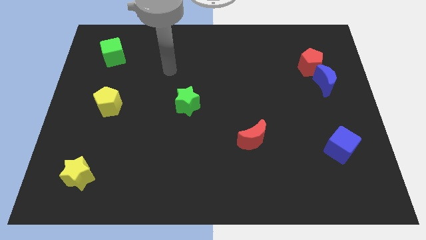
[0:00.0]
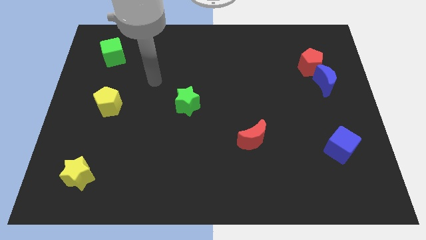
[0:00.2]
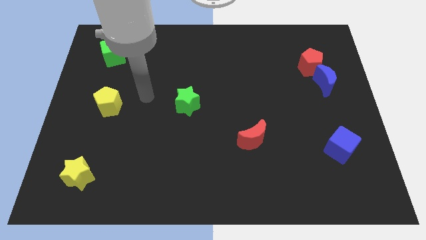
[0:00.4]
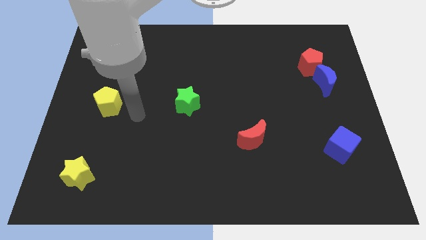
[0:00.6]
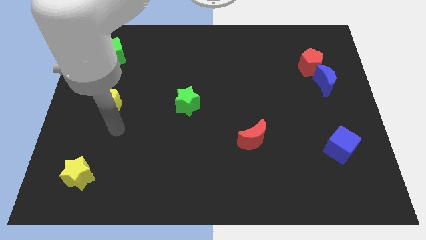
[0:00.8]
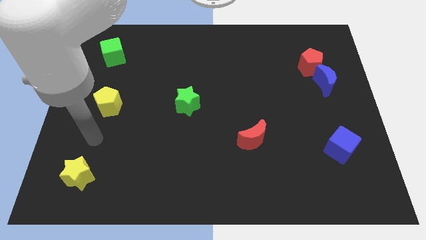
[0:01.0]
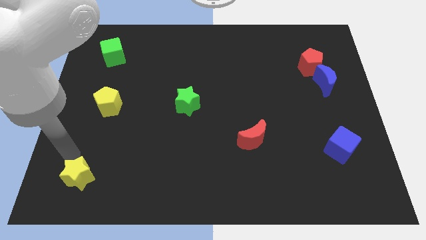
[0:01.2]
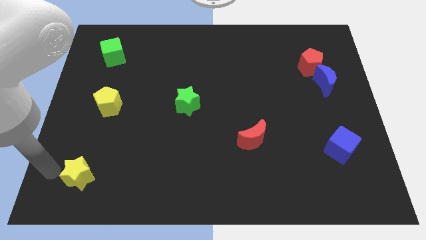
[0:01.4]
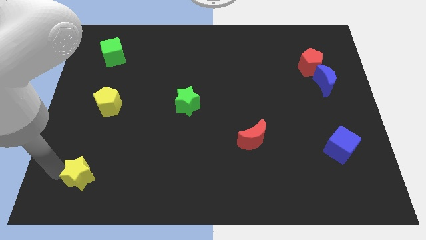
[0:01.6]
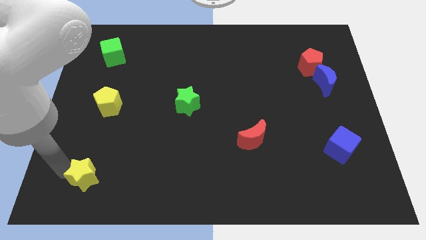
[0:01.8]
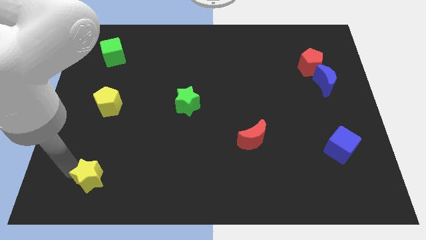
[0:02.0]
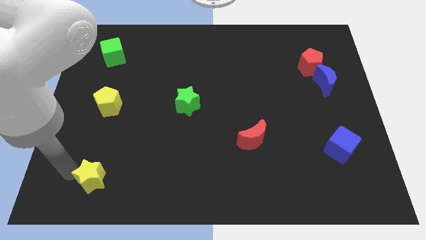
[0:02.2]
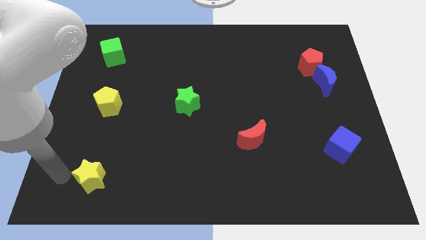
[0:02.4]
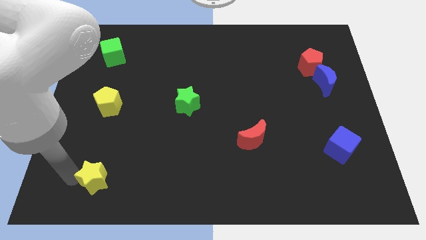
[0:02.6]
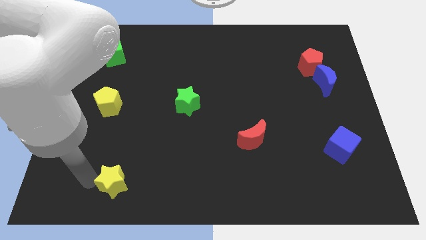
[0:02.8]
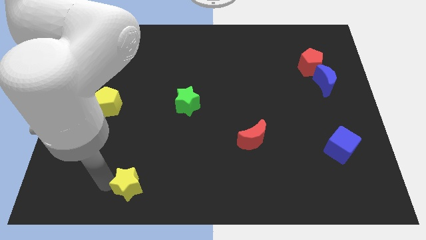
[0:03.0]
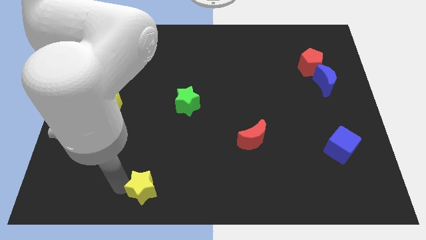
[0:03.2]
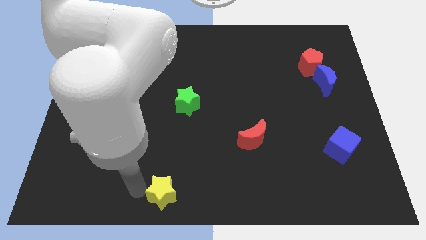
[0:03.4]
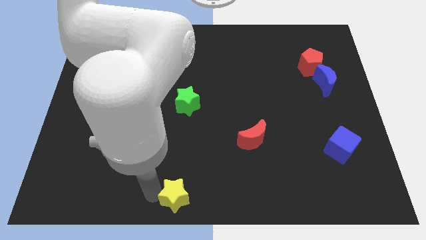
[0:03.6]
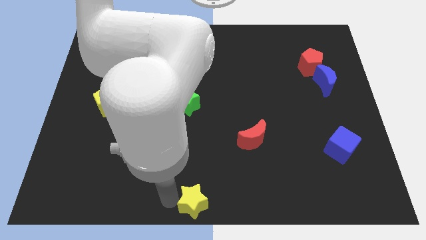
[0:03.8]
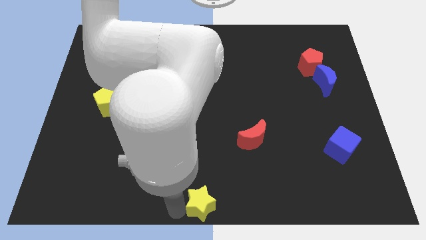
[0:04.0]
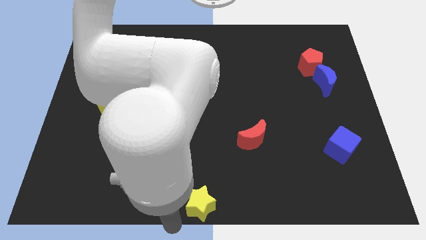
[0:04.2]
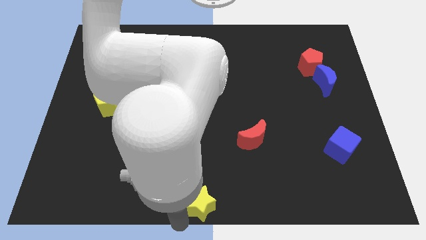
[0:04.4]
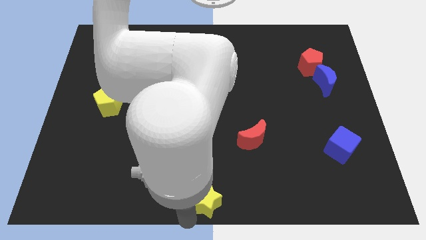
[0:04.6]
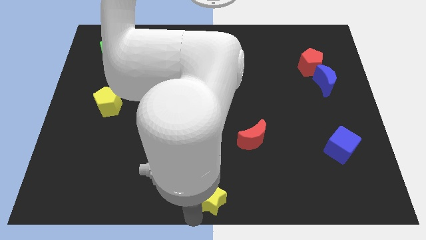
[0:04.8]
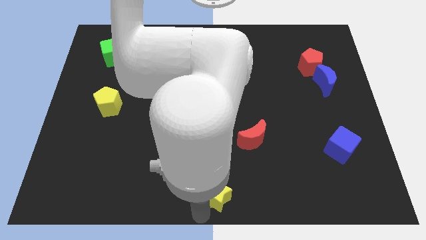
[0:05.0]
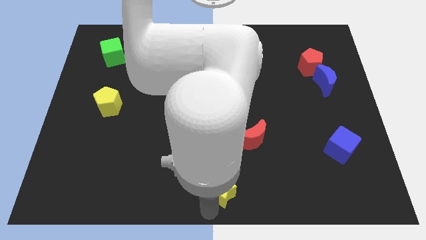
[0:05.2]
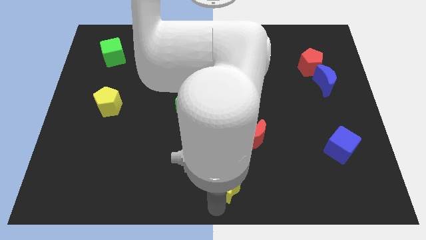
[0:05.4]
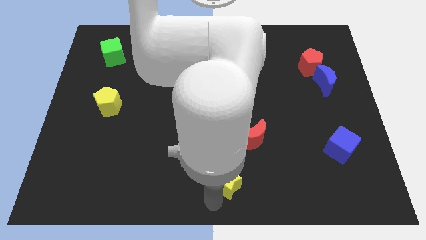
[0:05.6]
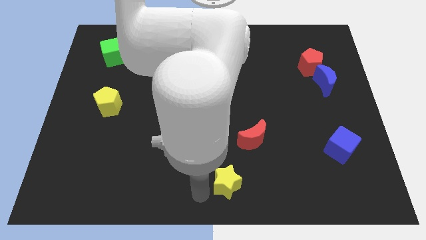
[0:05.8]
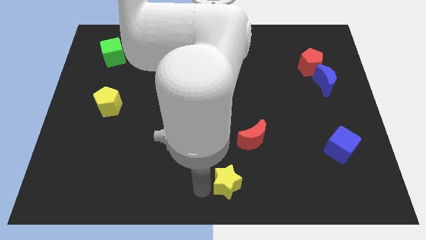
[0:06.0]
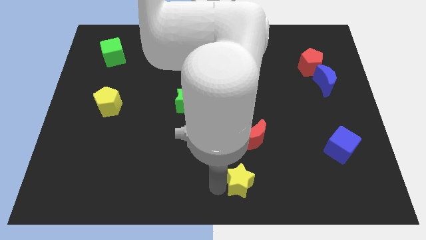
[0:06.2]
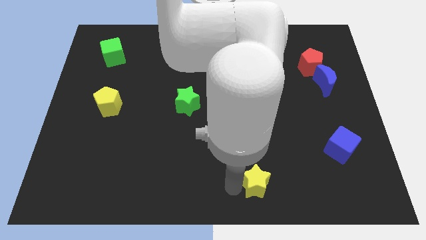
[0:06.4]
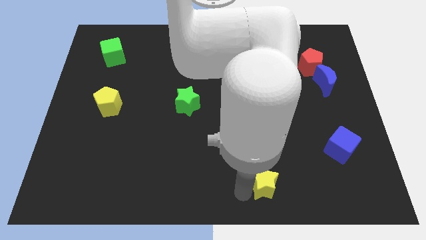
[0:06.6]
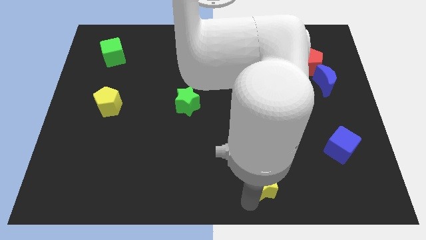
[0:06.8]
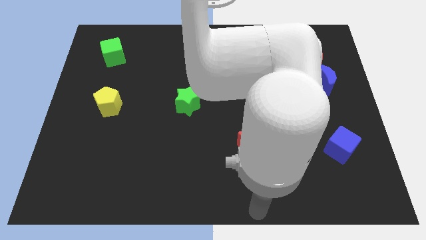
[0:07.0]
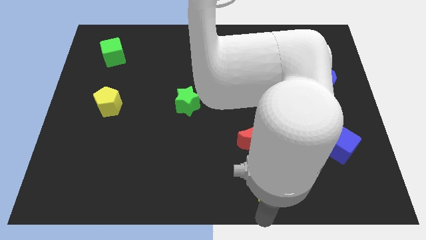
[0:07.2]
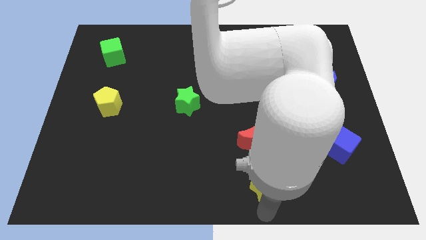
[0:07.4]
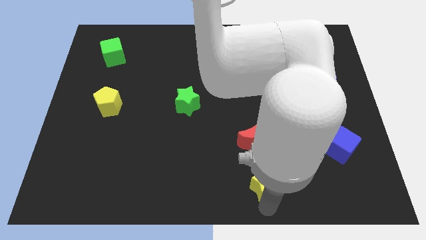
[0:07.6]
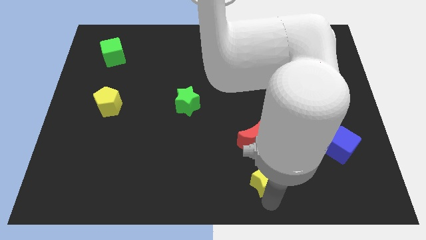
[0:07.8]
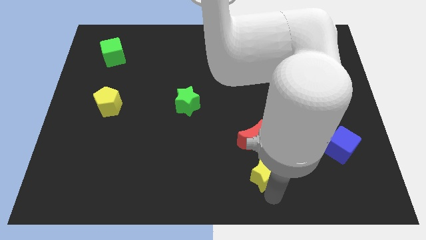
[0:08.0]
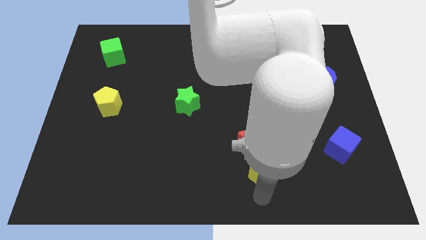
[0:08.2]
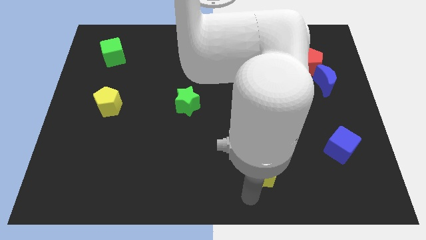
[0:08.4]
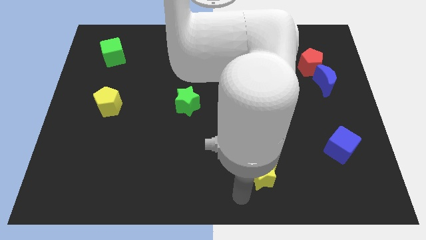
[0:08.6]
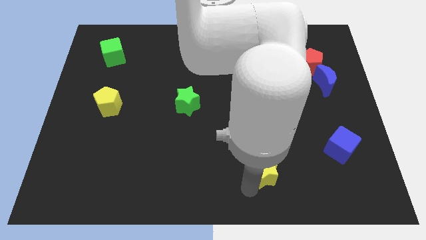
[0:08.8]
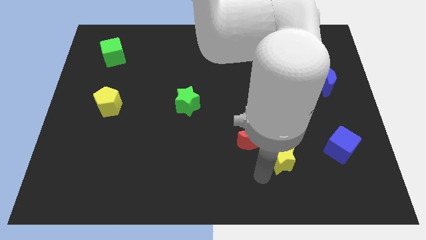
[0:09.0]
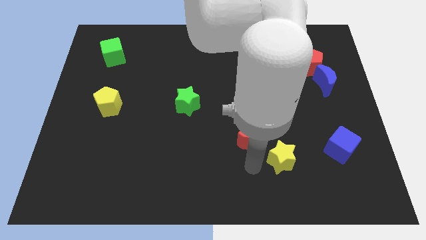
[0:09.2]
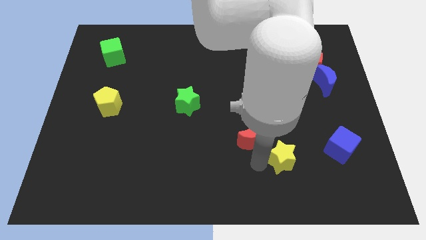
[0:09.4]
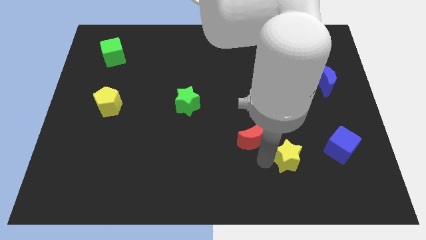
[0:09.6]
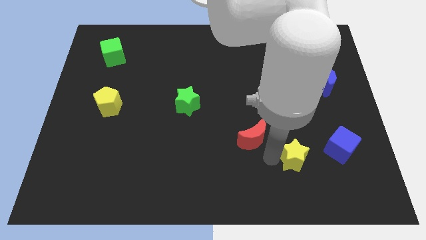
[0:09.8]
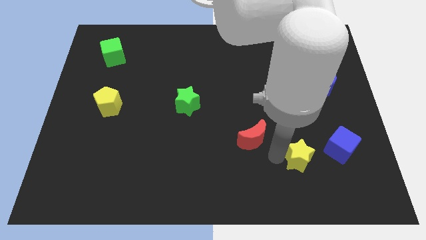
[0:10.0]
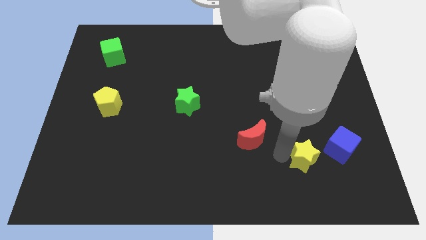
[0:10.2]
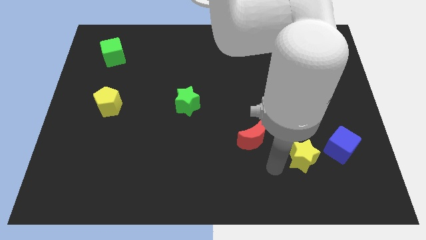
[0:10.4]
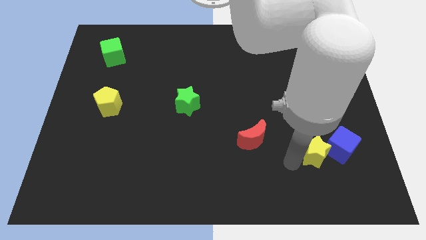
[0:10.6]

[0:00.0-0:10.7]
push the yellow star to the blue cube

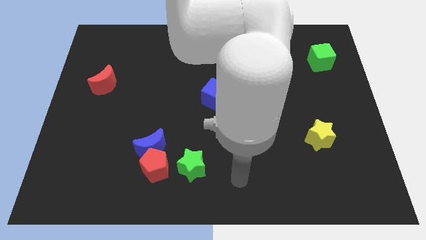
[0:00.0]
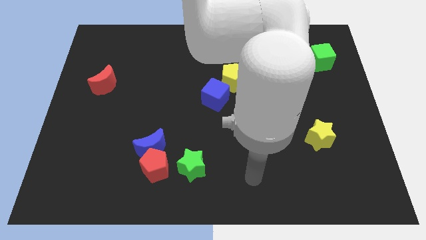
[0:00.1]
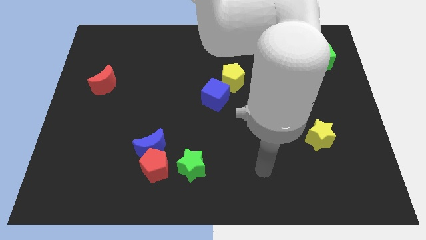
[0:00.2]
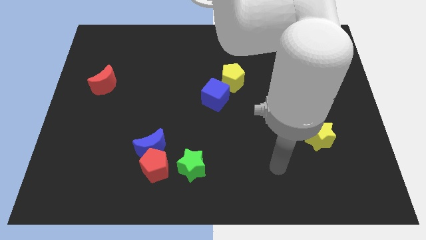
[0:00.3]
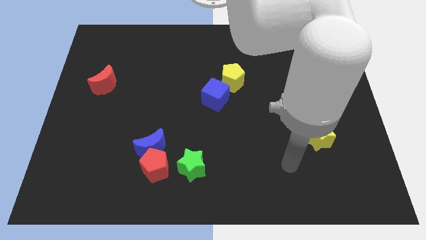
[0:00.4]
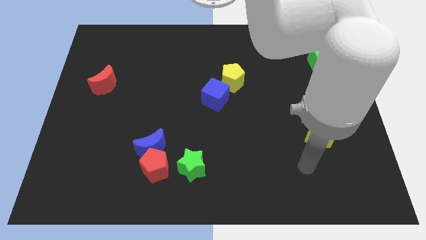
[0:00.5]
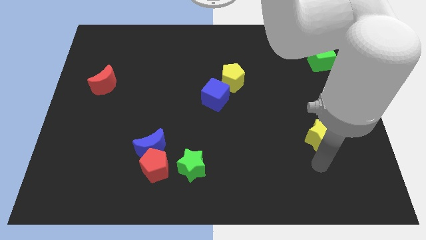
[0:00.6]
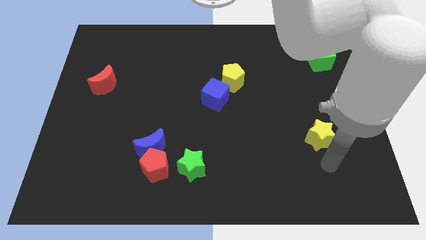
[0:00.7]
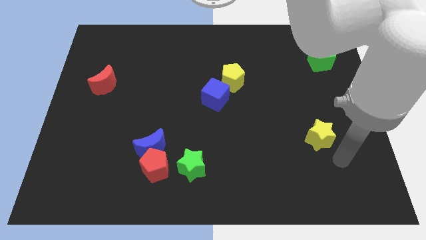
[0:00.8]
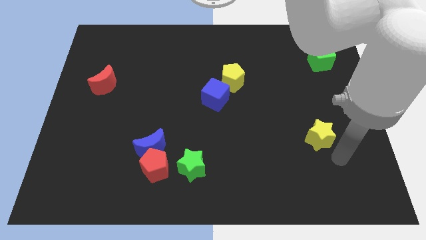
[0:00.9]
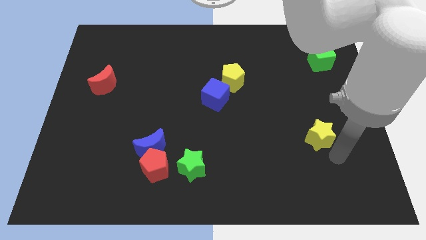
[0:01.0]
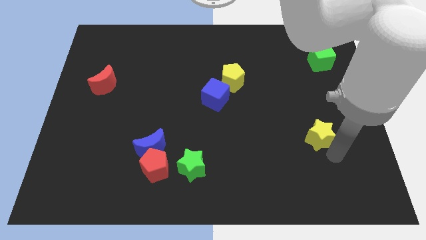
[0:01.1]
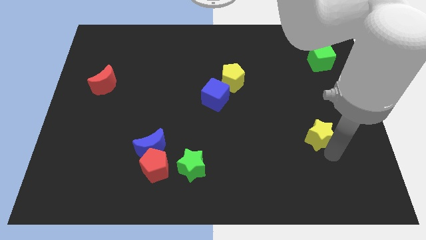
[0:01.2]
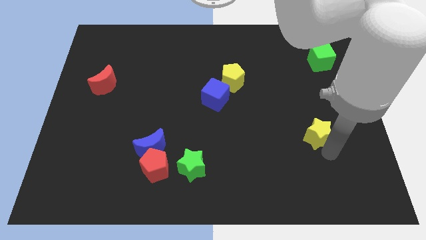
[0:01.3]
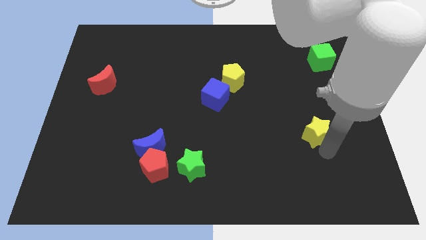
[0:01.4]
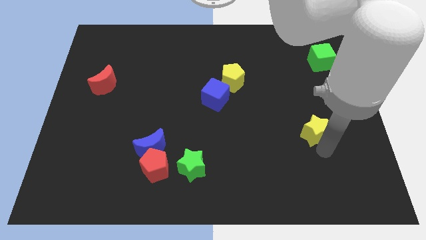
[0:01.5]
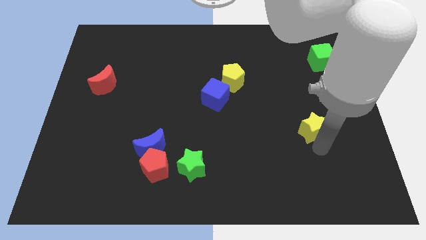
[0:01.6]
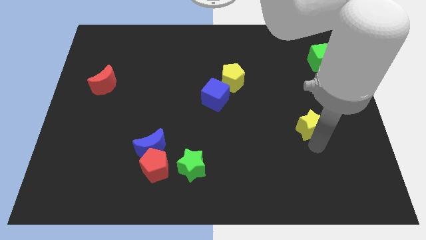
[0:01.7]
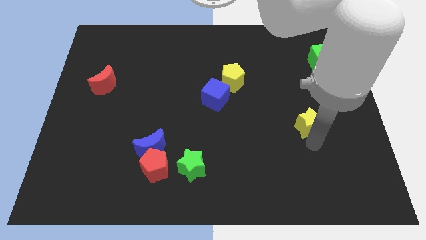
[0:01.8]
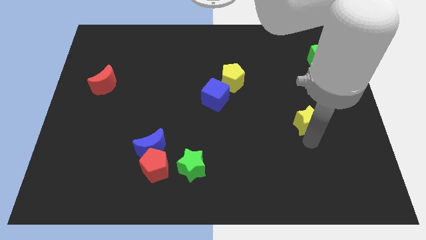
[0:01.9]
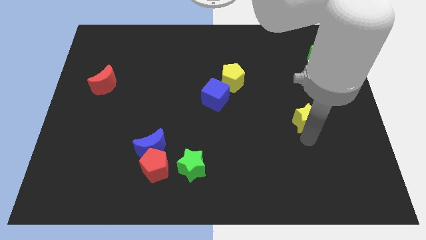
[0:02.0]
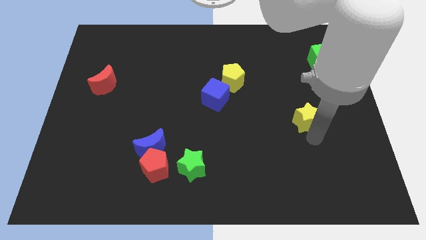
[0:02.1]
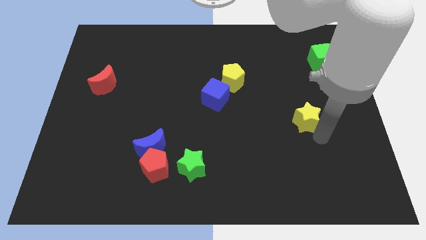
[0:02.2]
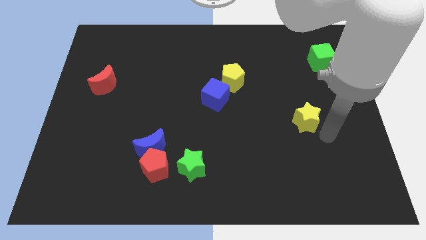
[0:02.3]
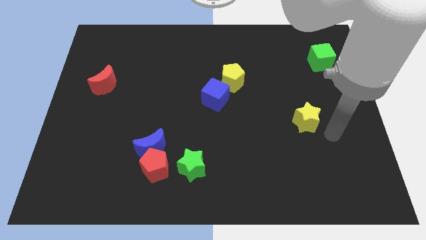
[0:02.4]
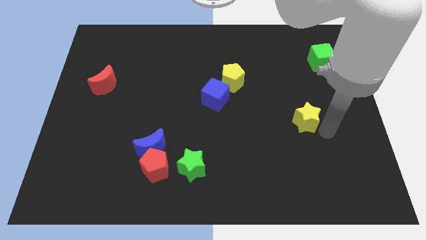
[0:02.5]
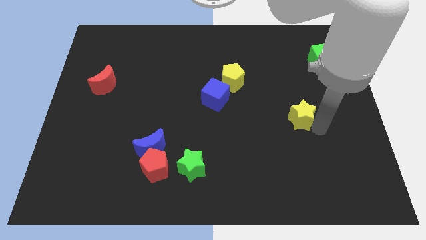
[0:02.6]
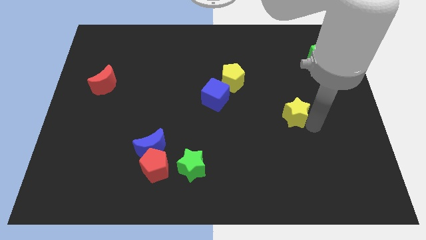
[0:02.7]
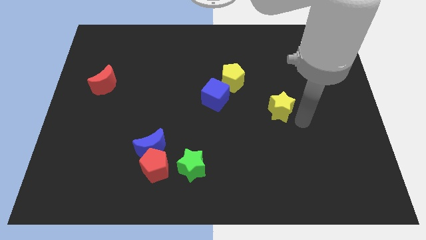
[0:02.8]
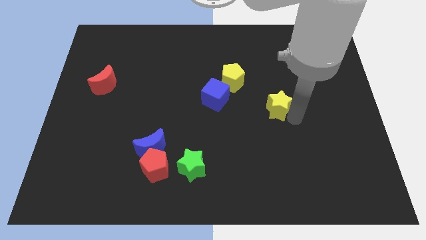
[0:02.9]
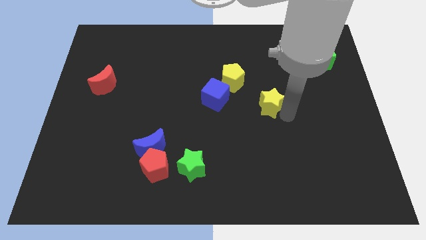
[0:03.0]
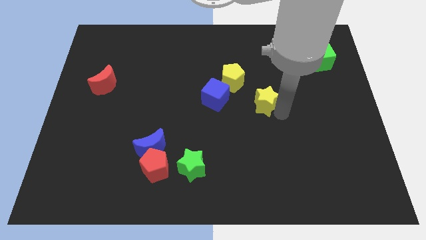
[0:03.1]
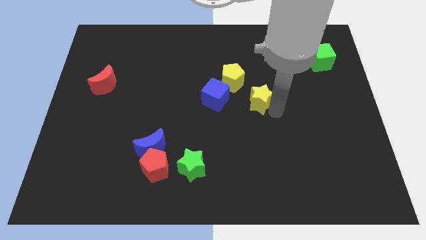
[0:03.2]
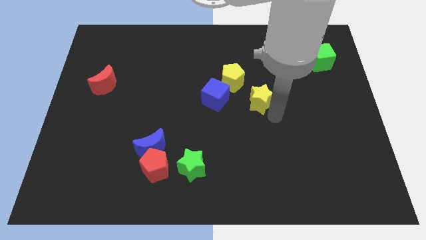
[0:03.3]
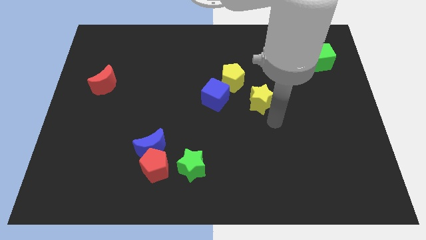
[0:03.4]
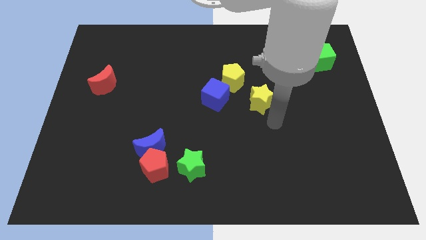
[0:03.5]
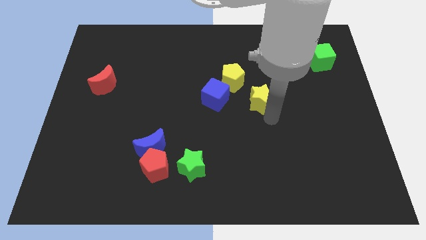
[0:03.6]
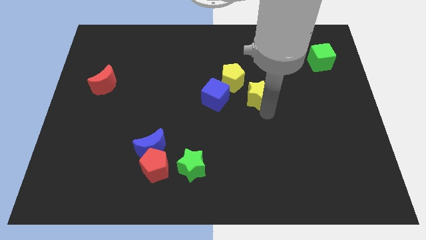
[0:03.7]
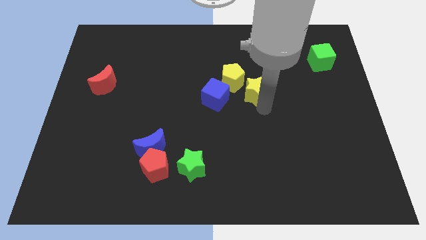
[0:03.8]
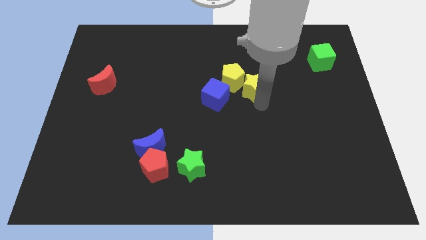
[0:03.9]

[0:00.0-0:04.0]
put the yellow star close to the yellow pentagon
